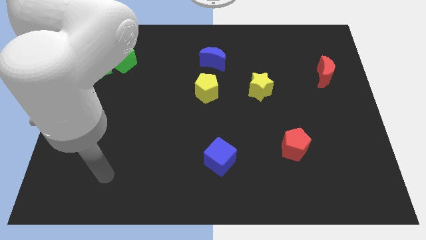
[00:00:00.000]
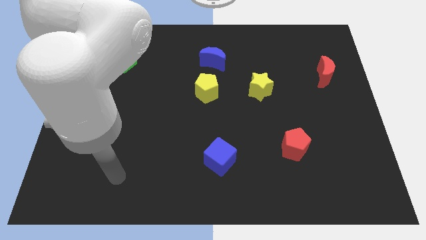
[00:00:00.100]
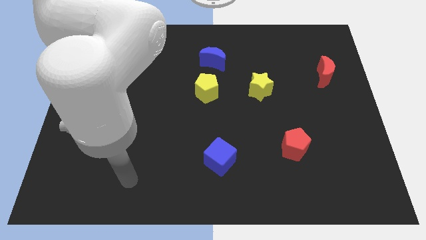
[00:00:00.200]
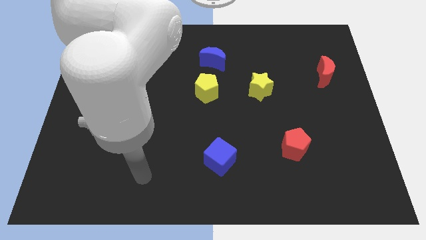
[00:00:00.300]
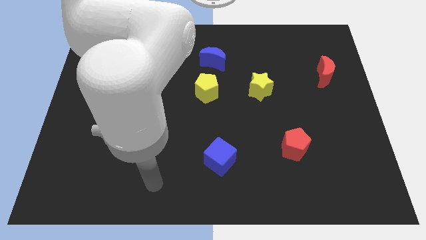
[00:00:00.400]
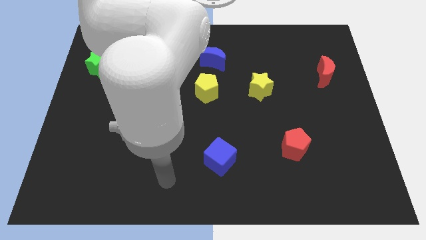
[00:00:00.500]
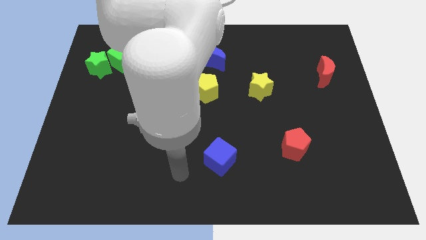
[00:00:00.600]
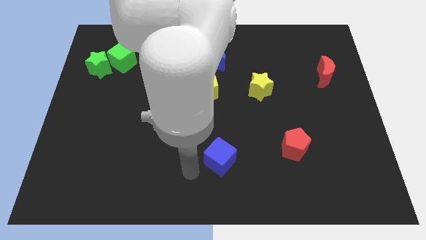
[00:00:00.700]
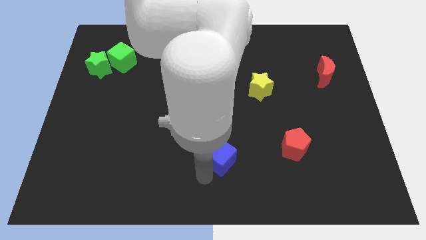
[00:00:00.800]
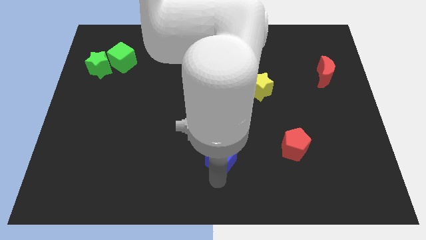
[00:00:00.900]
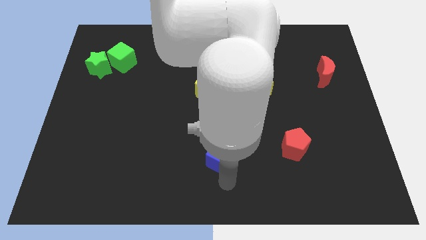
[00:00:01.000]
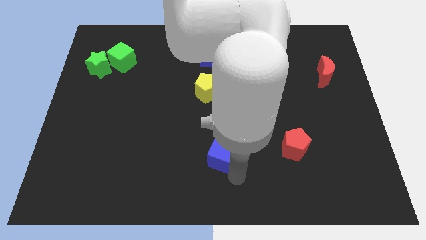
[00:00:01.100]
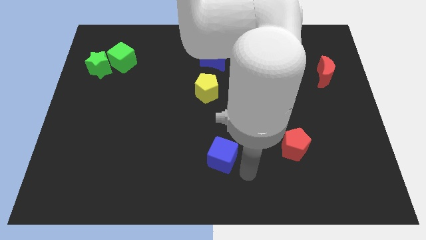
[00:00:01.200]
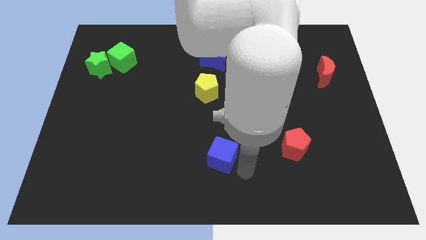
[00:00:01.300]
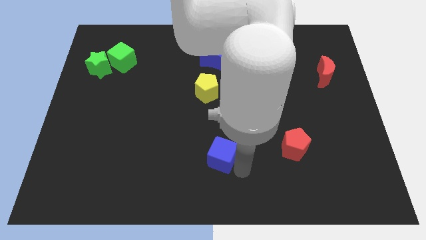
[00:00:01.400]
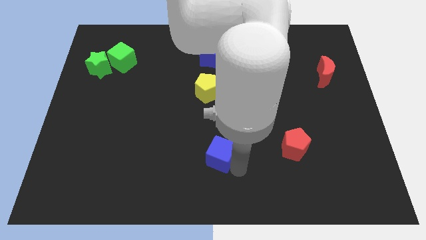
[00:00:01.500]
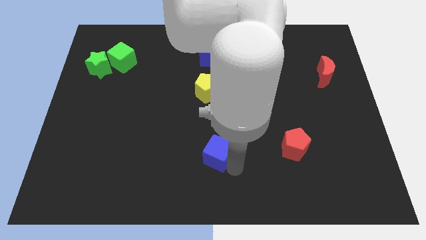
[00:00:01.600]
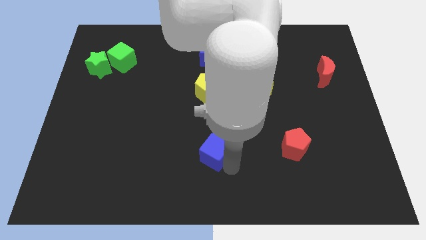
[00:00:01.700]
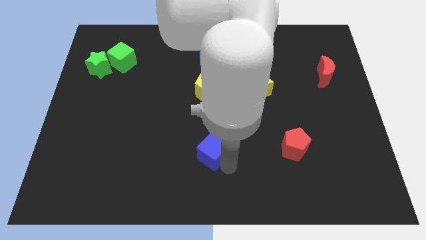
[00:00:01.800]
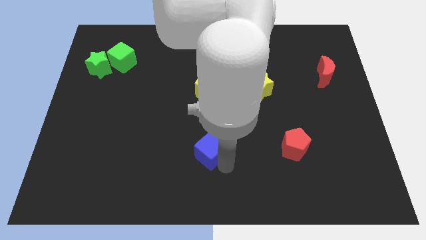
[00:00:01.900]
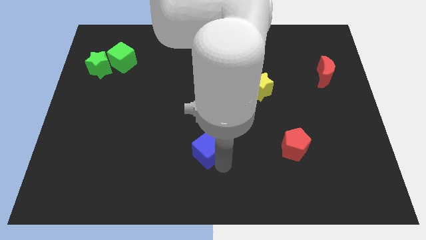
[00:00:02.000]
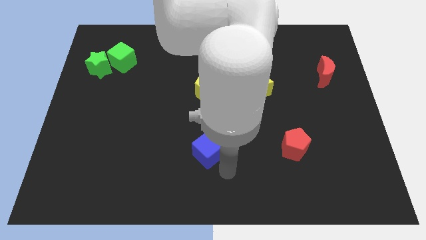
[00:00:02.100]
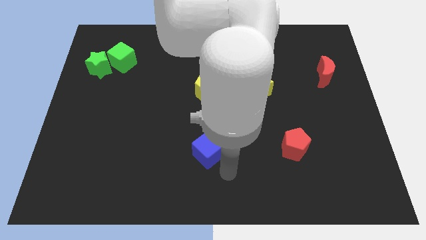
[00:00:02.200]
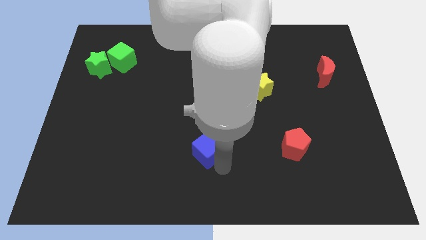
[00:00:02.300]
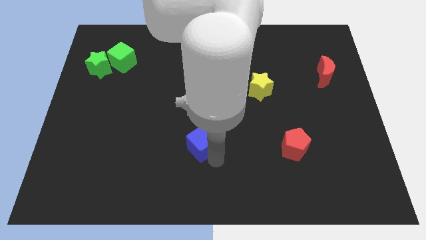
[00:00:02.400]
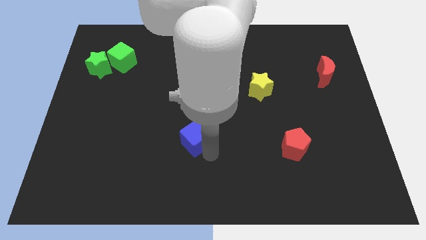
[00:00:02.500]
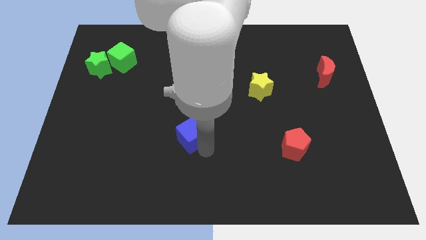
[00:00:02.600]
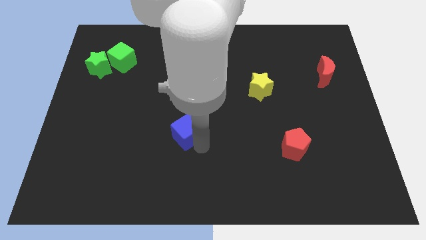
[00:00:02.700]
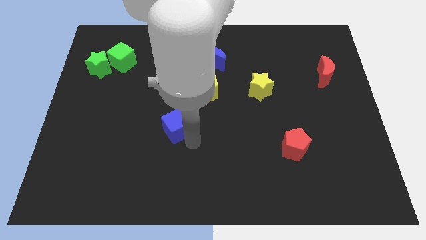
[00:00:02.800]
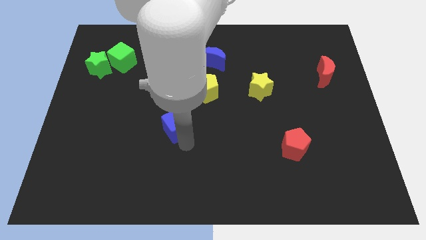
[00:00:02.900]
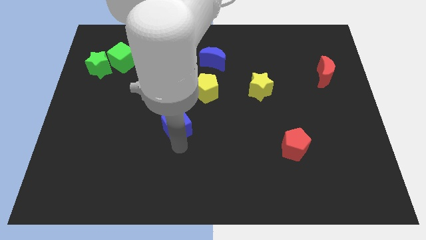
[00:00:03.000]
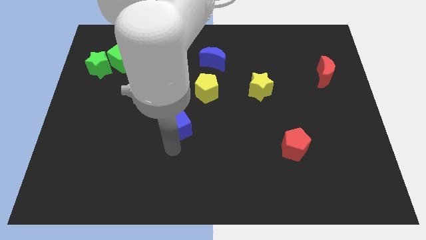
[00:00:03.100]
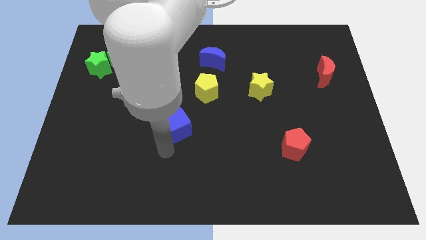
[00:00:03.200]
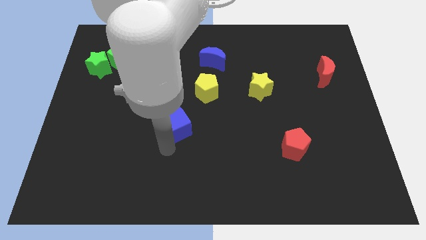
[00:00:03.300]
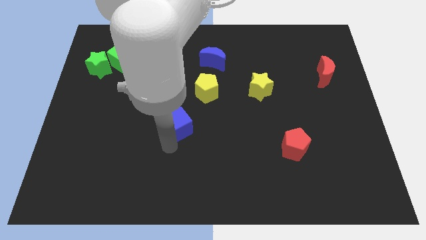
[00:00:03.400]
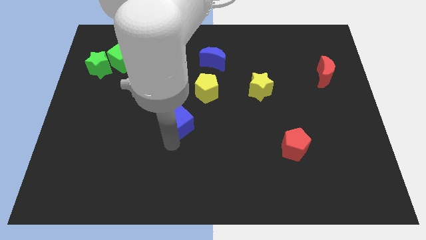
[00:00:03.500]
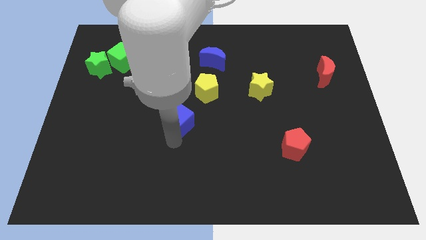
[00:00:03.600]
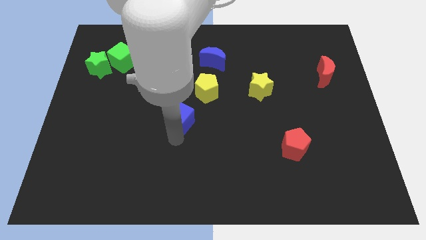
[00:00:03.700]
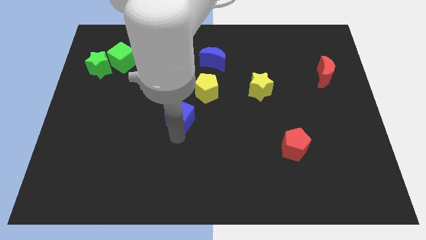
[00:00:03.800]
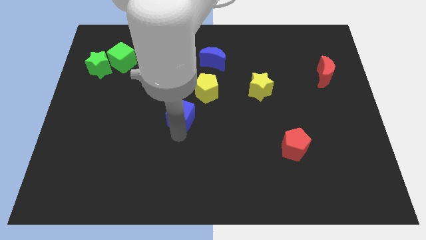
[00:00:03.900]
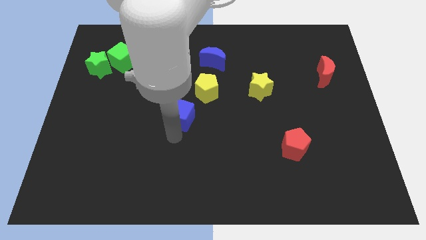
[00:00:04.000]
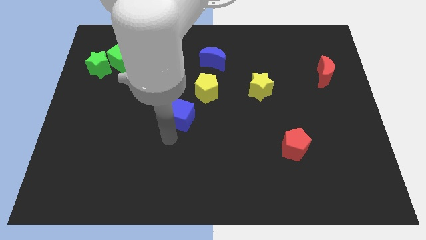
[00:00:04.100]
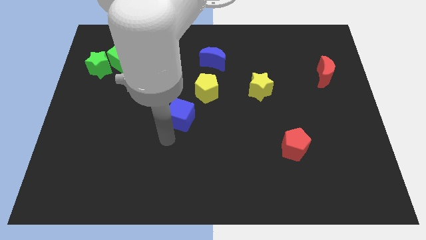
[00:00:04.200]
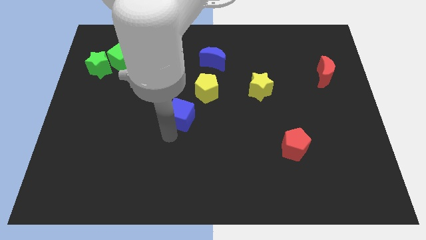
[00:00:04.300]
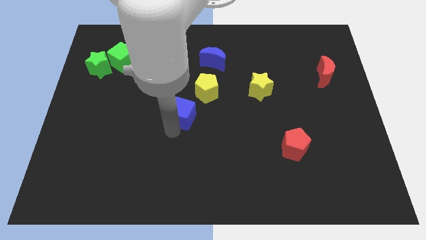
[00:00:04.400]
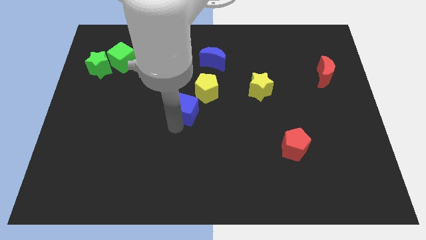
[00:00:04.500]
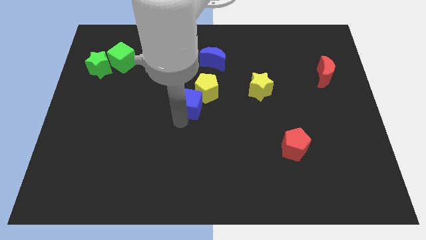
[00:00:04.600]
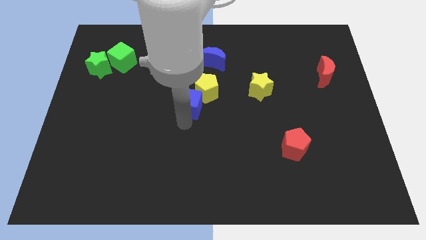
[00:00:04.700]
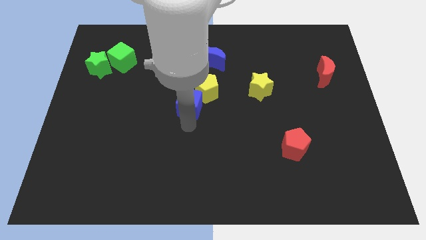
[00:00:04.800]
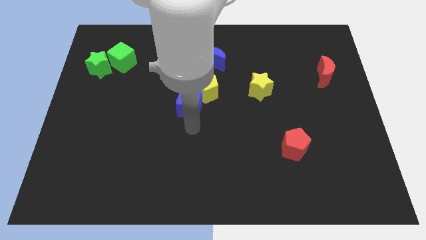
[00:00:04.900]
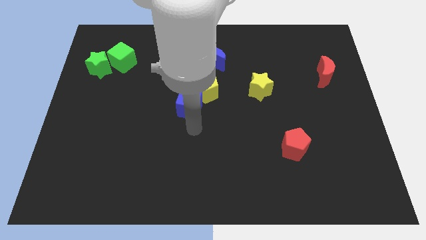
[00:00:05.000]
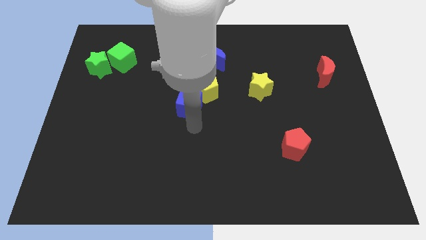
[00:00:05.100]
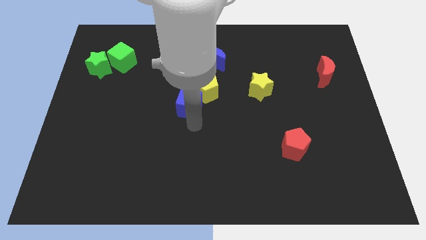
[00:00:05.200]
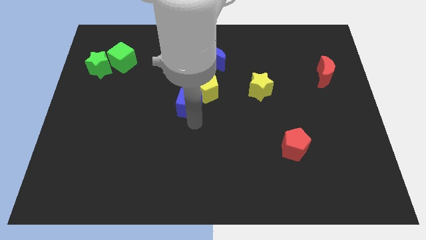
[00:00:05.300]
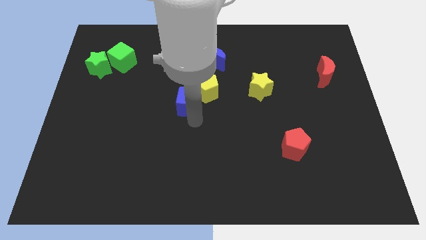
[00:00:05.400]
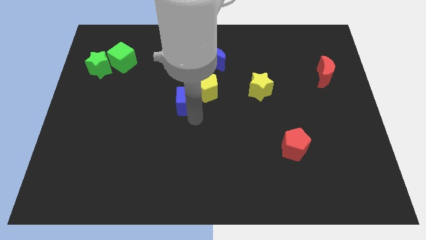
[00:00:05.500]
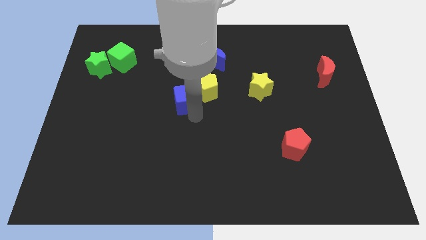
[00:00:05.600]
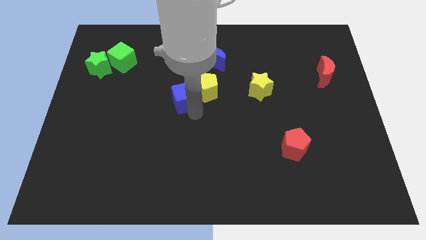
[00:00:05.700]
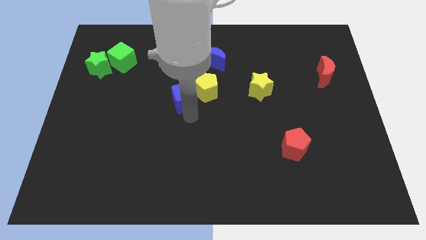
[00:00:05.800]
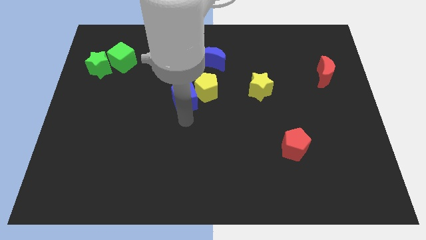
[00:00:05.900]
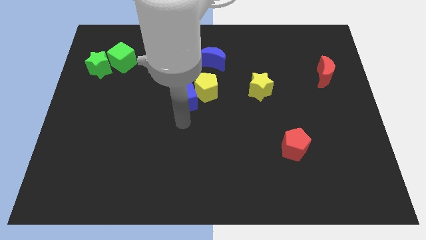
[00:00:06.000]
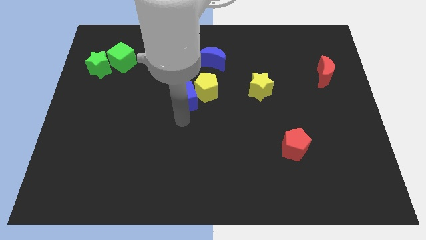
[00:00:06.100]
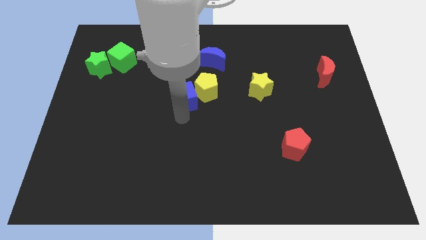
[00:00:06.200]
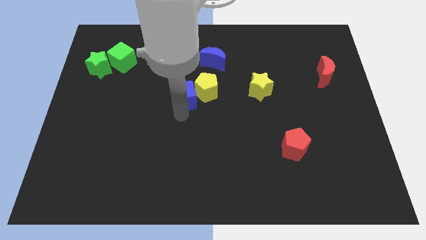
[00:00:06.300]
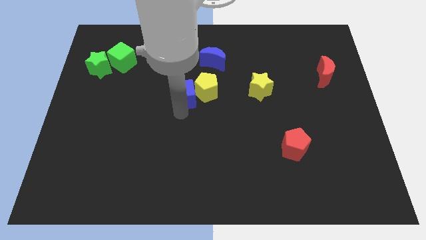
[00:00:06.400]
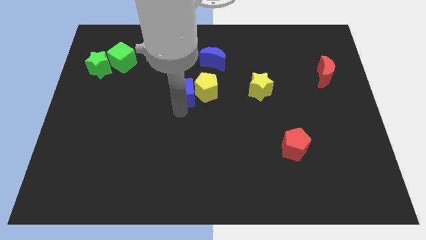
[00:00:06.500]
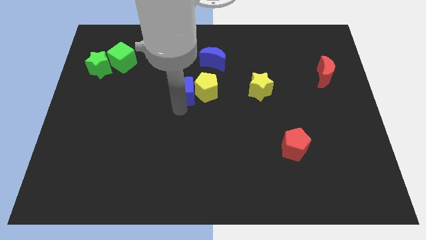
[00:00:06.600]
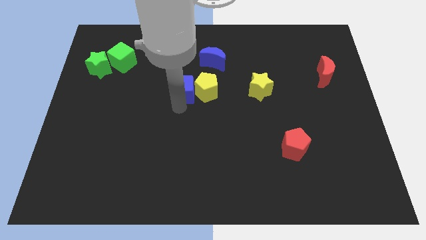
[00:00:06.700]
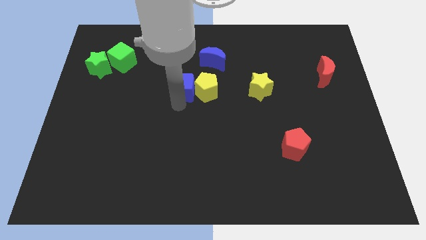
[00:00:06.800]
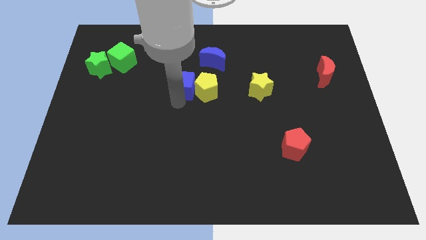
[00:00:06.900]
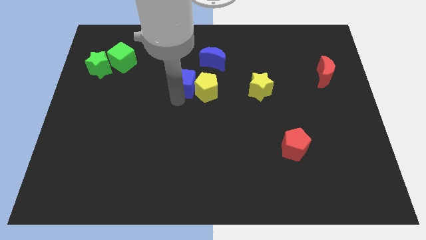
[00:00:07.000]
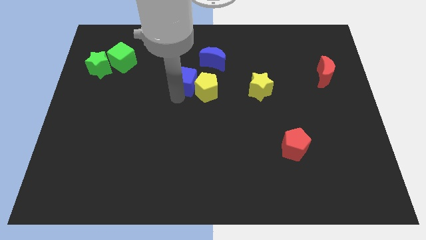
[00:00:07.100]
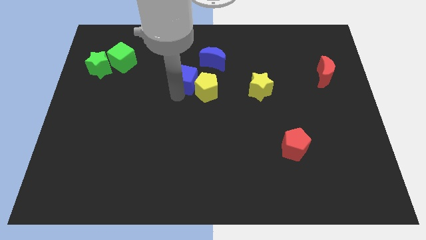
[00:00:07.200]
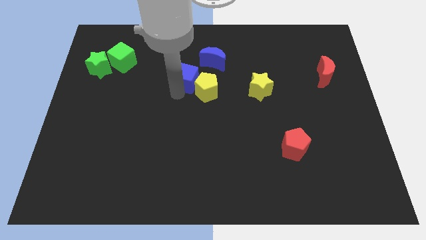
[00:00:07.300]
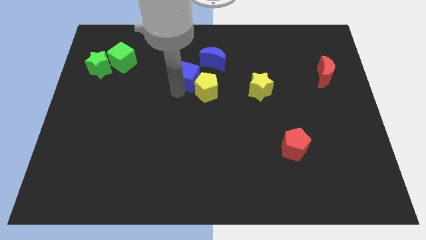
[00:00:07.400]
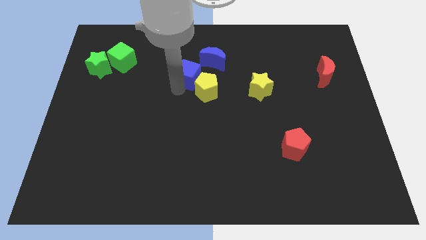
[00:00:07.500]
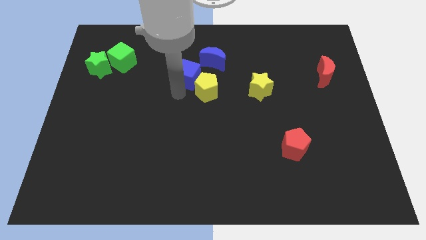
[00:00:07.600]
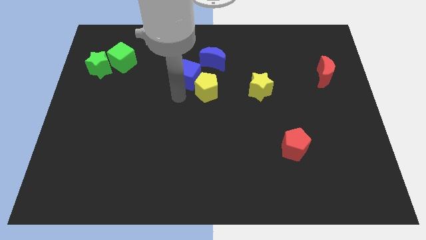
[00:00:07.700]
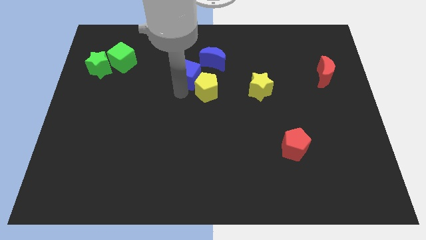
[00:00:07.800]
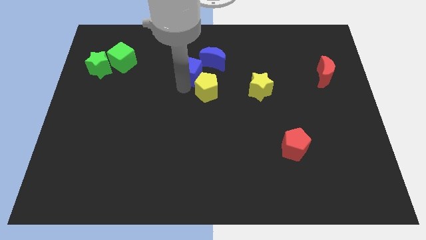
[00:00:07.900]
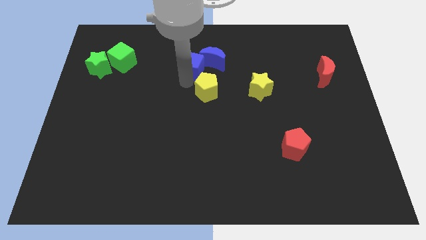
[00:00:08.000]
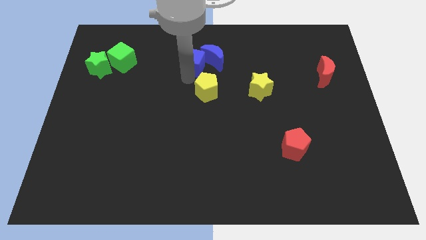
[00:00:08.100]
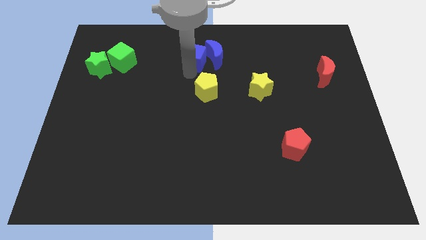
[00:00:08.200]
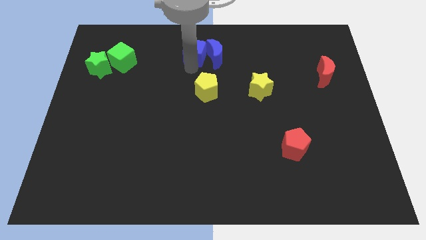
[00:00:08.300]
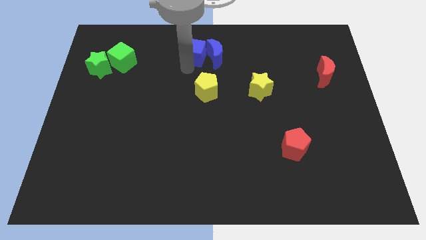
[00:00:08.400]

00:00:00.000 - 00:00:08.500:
put the blue cube to the top
